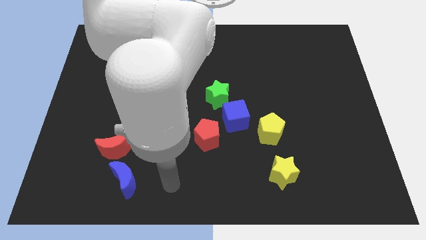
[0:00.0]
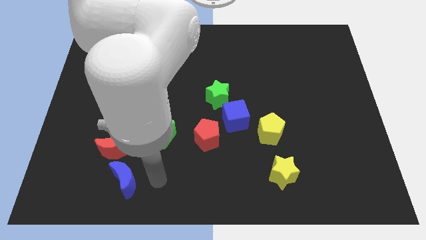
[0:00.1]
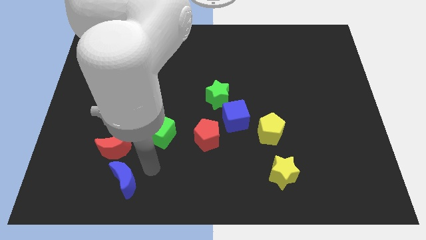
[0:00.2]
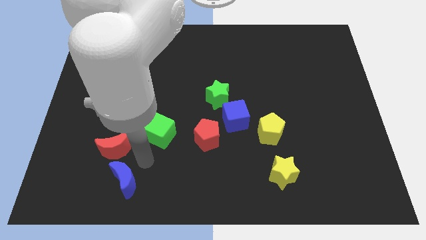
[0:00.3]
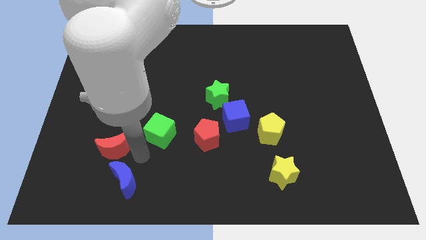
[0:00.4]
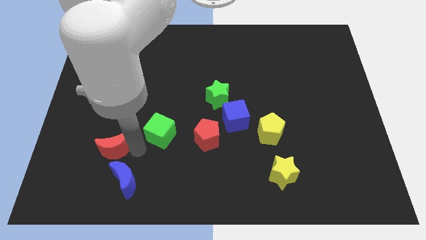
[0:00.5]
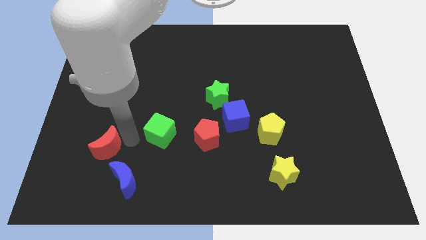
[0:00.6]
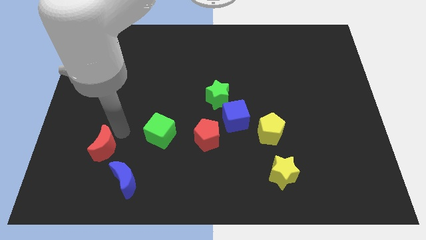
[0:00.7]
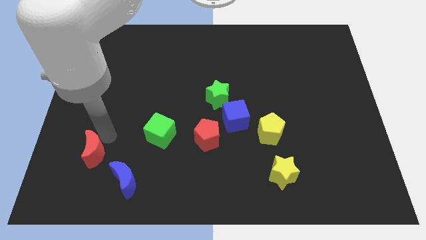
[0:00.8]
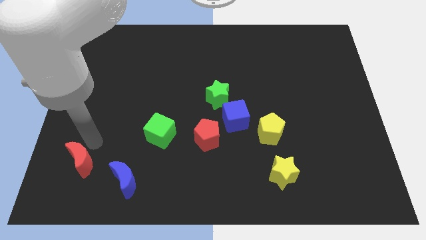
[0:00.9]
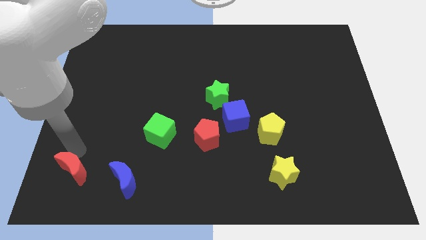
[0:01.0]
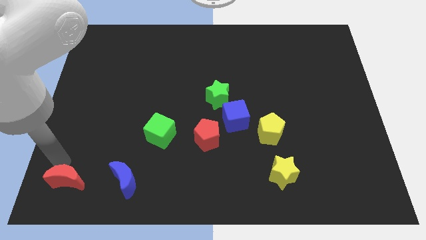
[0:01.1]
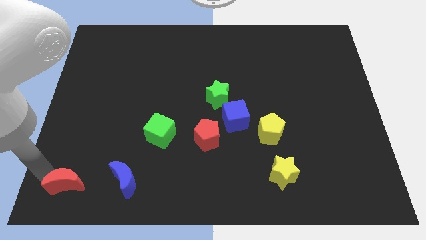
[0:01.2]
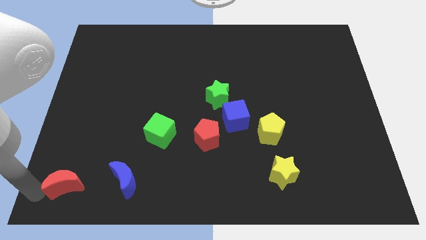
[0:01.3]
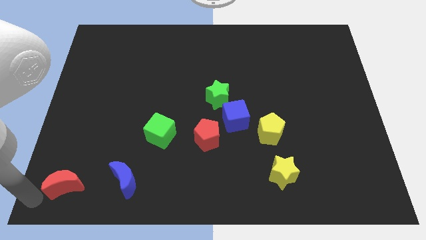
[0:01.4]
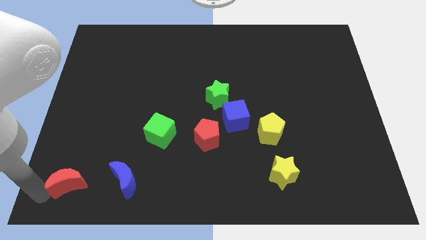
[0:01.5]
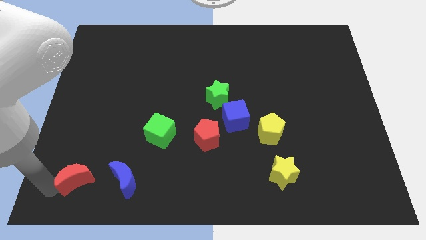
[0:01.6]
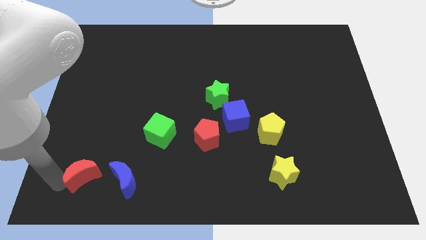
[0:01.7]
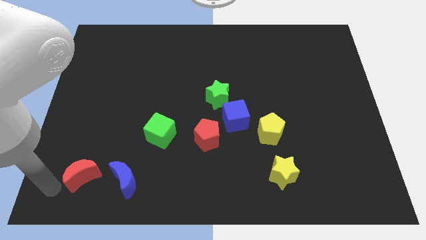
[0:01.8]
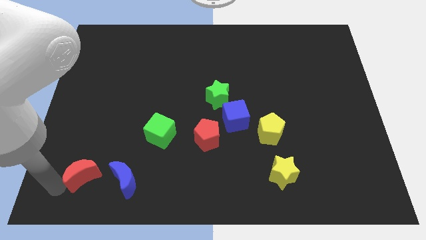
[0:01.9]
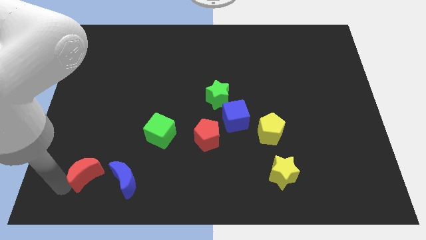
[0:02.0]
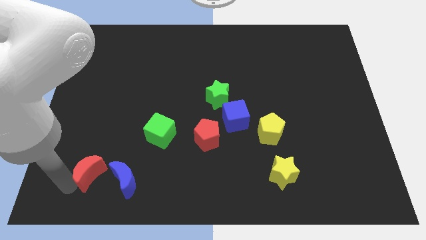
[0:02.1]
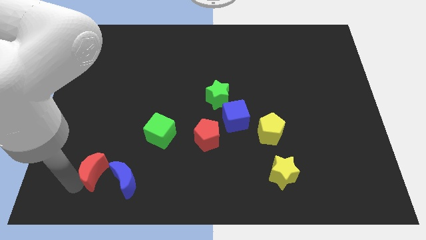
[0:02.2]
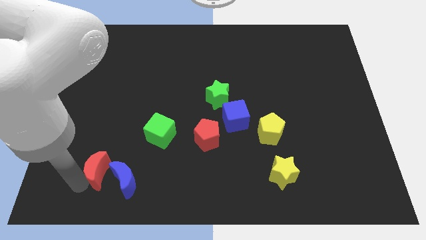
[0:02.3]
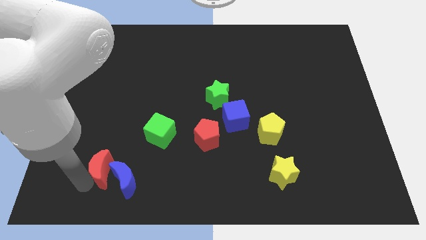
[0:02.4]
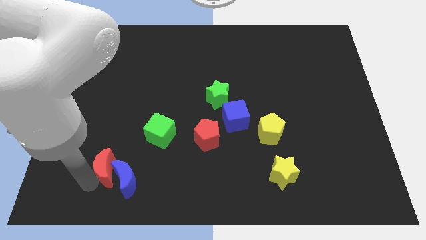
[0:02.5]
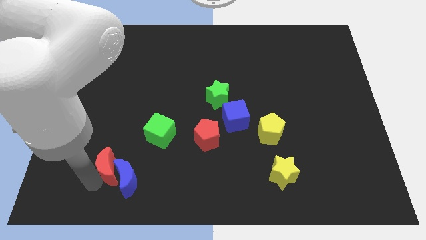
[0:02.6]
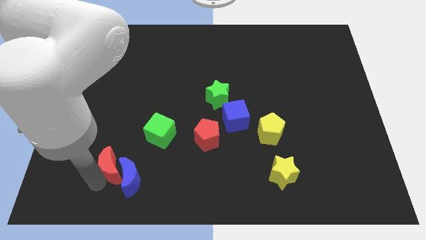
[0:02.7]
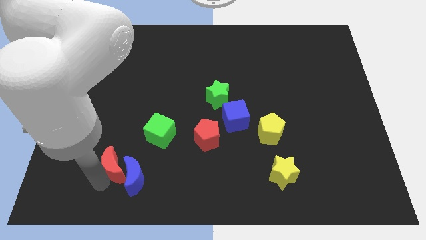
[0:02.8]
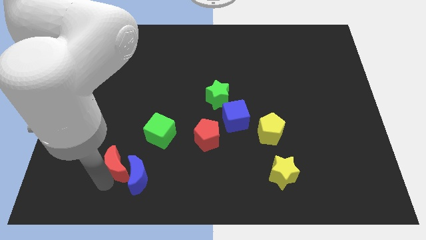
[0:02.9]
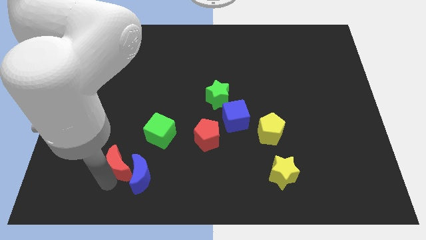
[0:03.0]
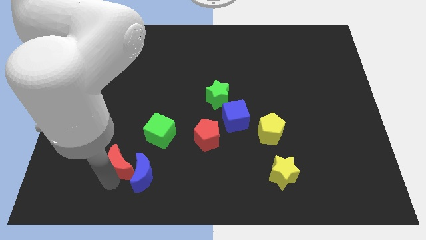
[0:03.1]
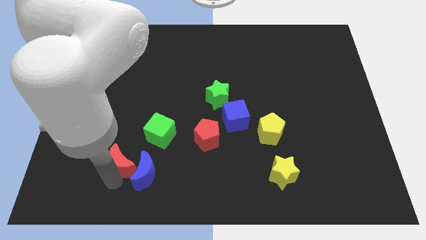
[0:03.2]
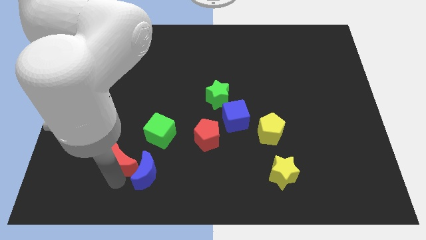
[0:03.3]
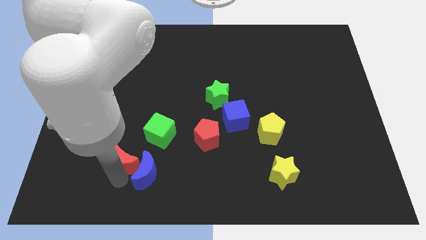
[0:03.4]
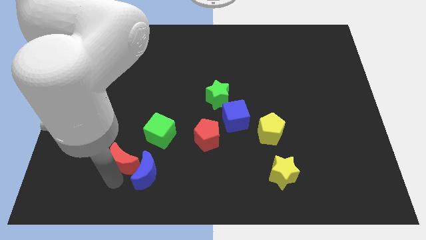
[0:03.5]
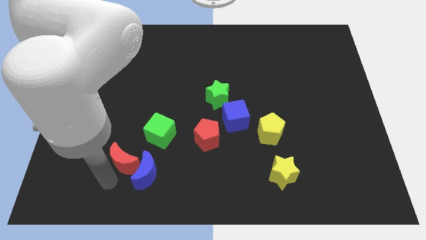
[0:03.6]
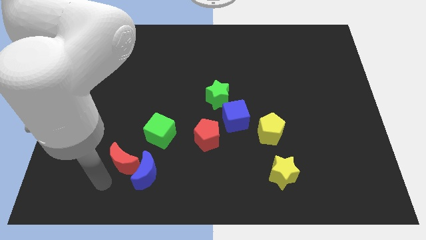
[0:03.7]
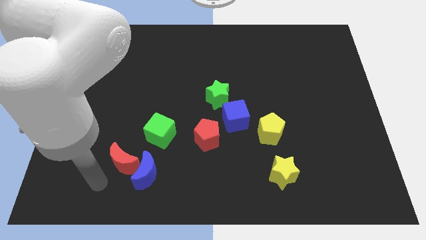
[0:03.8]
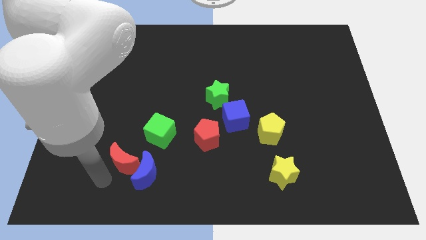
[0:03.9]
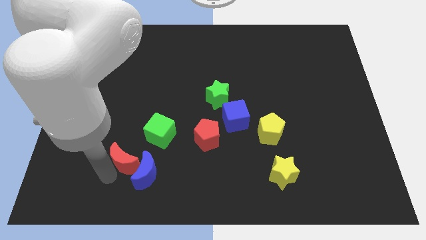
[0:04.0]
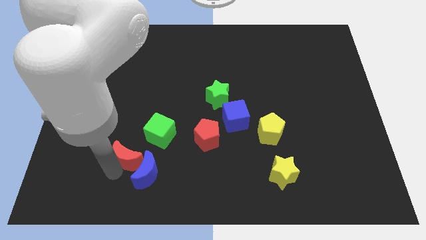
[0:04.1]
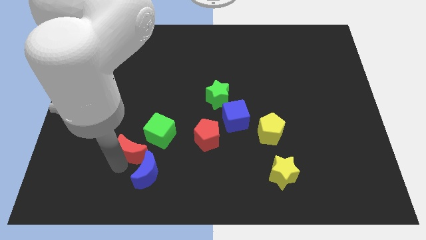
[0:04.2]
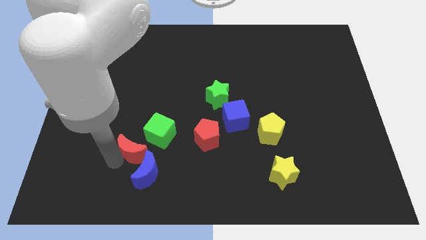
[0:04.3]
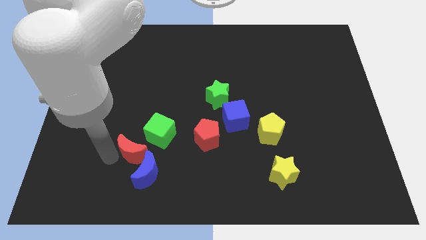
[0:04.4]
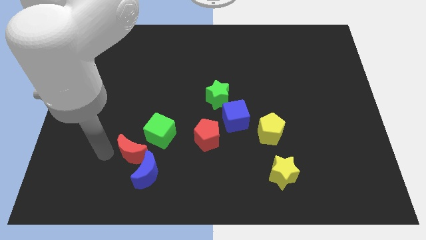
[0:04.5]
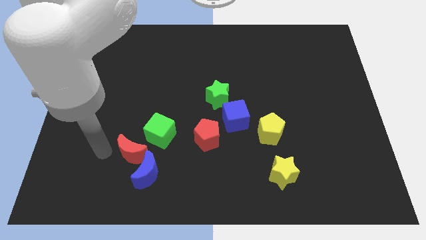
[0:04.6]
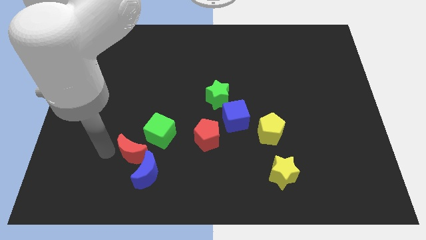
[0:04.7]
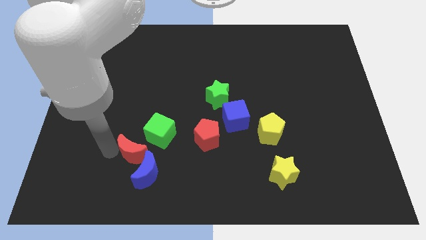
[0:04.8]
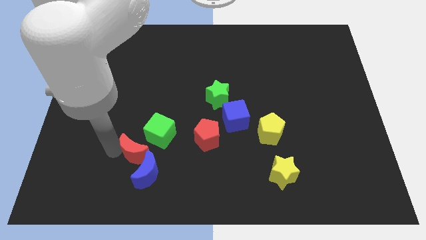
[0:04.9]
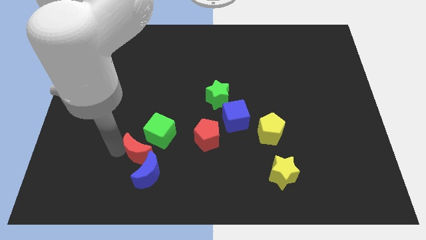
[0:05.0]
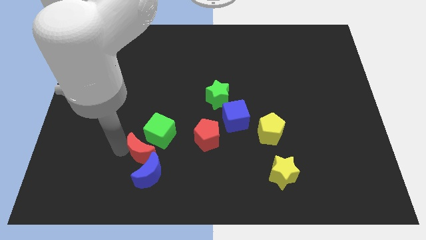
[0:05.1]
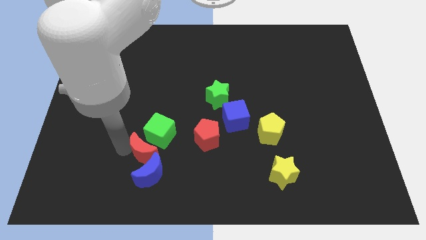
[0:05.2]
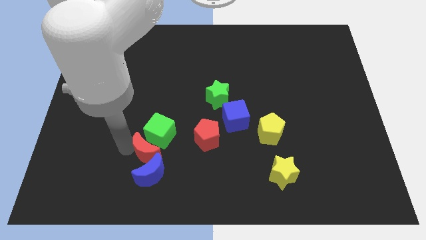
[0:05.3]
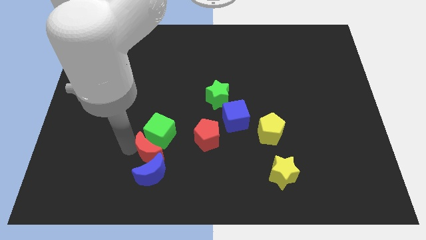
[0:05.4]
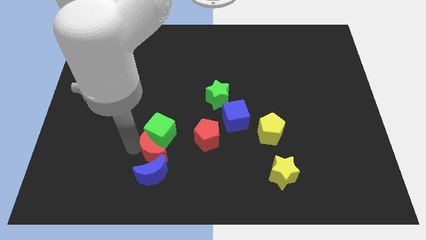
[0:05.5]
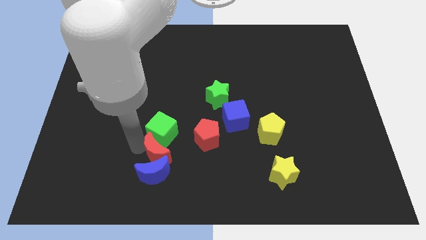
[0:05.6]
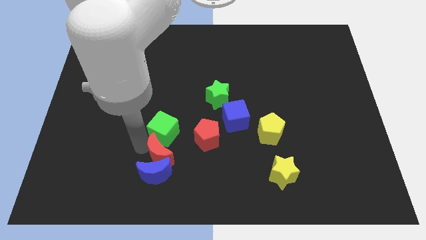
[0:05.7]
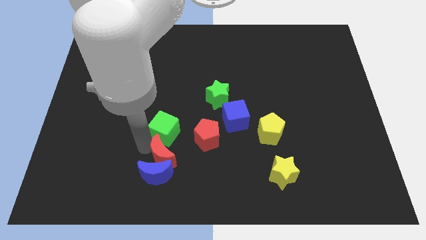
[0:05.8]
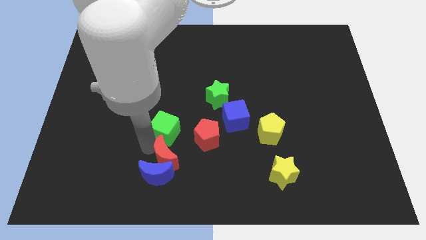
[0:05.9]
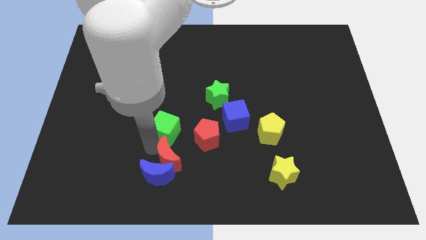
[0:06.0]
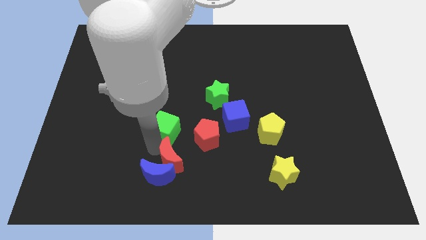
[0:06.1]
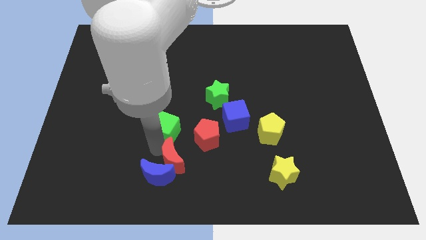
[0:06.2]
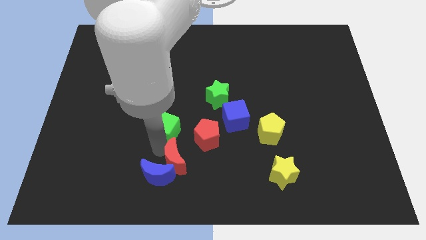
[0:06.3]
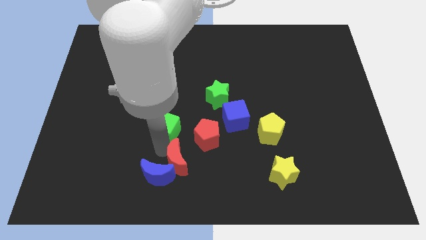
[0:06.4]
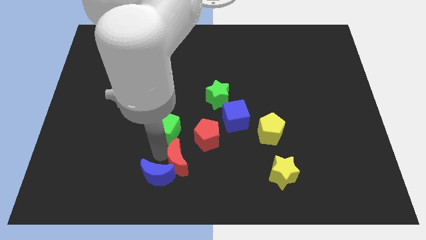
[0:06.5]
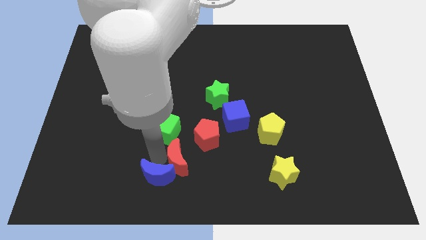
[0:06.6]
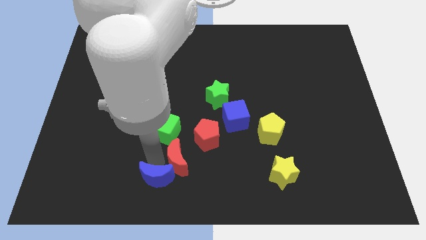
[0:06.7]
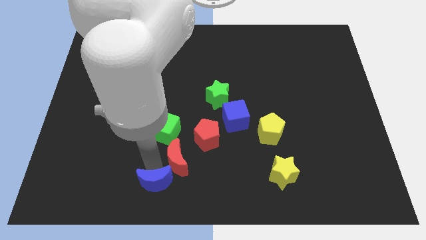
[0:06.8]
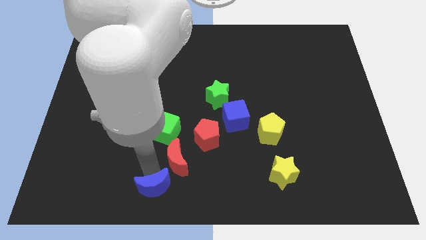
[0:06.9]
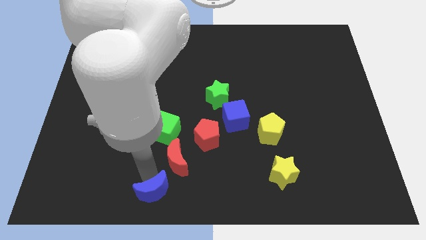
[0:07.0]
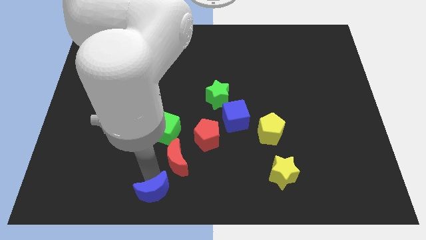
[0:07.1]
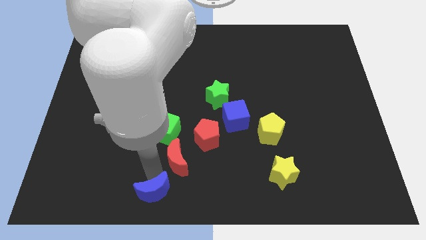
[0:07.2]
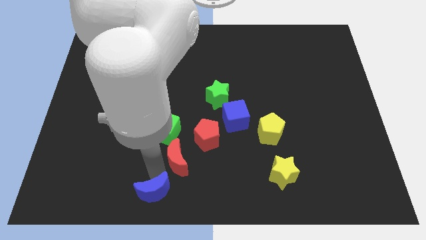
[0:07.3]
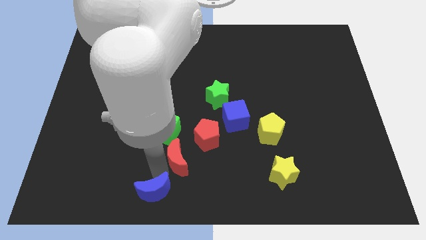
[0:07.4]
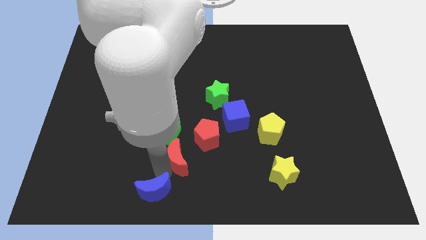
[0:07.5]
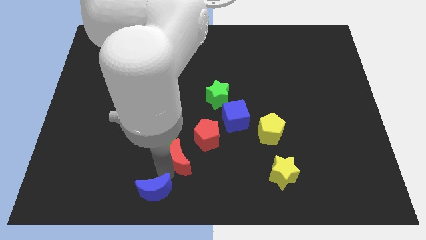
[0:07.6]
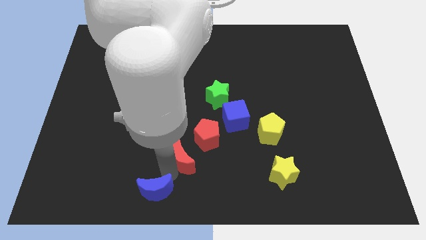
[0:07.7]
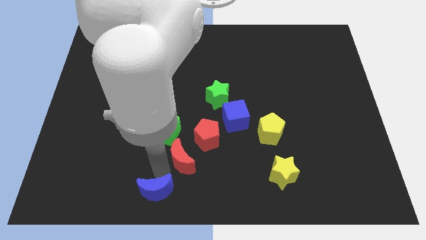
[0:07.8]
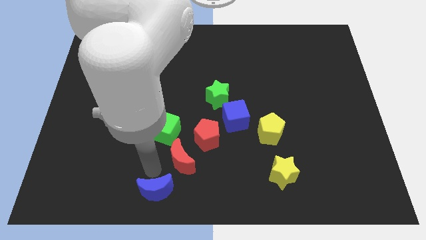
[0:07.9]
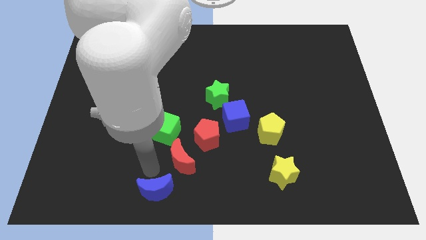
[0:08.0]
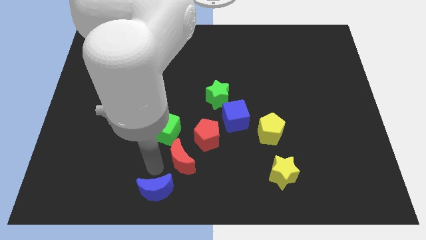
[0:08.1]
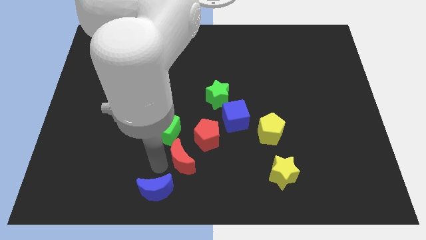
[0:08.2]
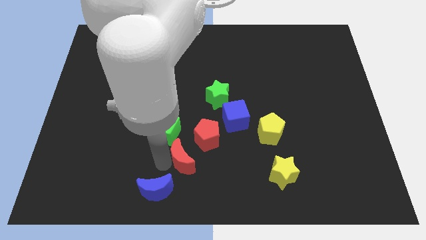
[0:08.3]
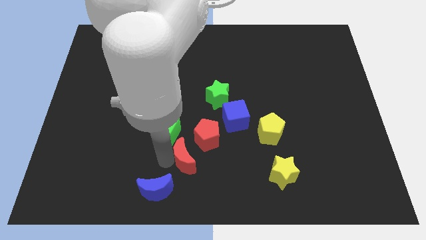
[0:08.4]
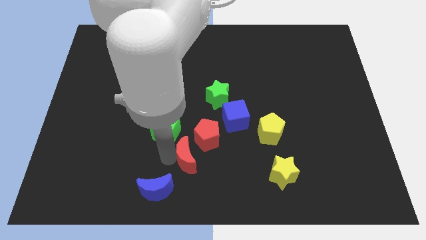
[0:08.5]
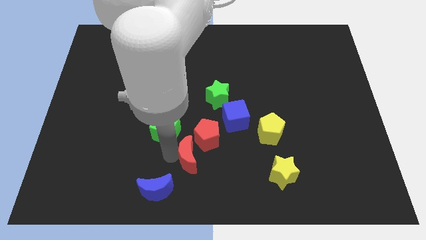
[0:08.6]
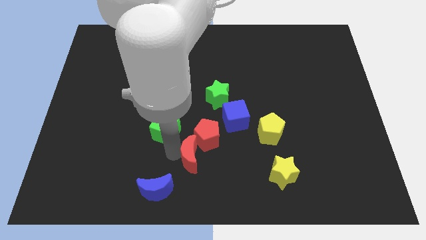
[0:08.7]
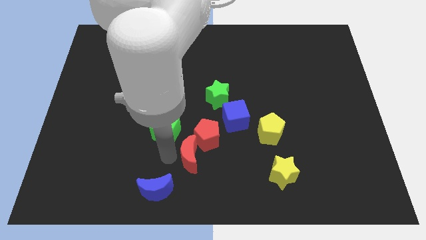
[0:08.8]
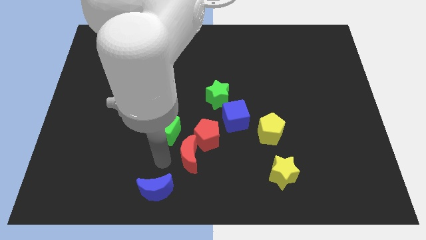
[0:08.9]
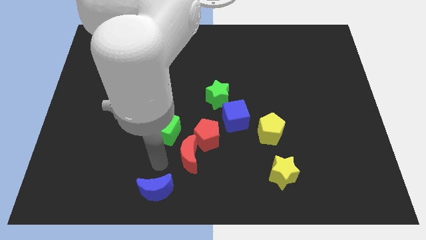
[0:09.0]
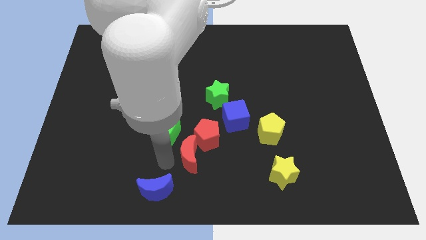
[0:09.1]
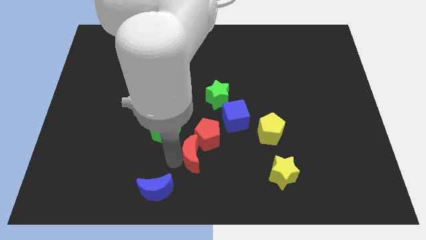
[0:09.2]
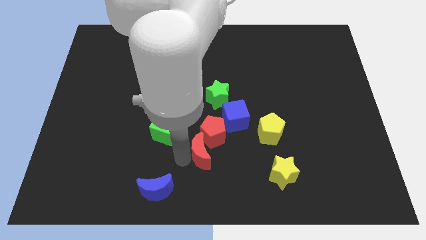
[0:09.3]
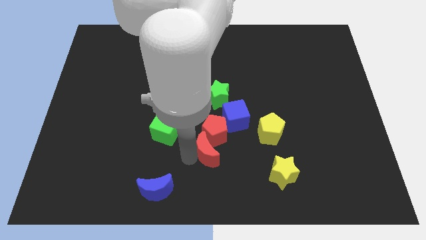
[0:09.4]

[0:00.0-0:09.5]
put the red moon below the green star
